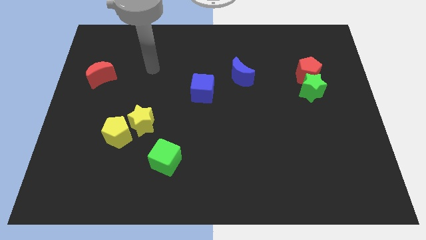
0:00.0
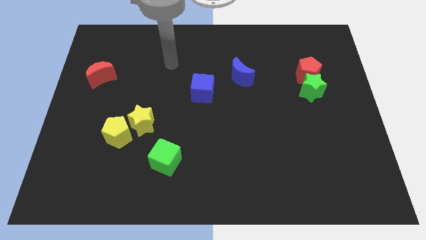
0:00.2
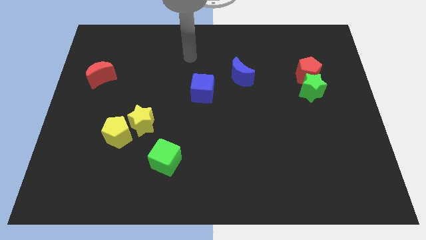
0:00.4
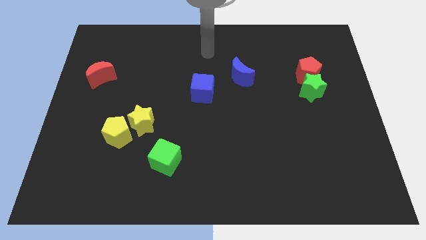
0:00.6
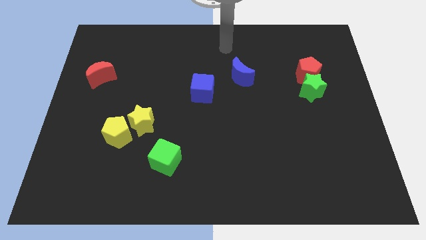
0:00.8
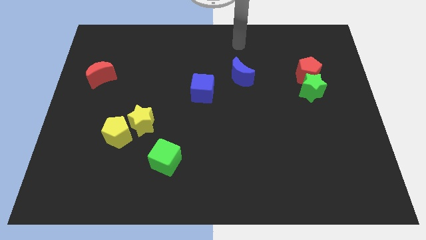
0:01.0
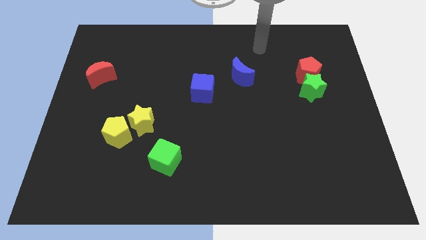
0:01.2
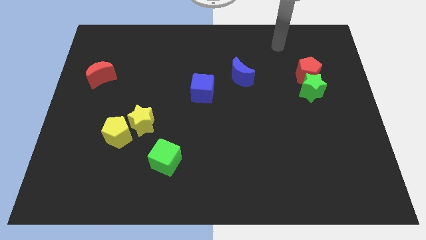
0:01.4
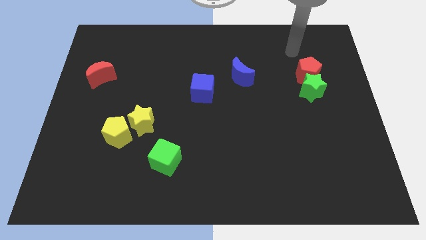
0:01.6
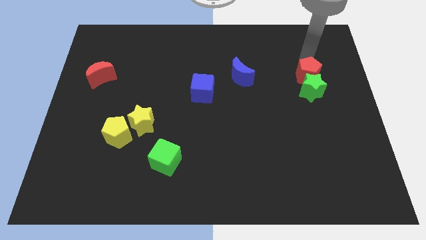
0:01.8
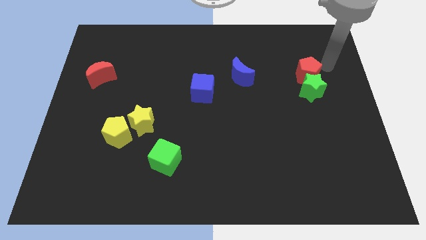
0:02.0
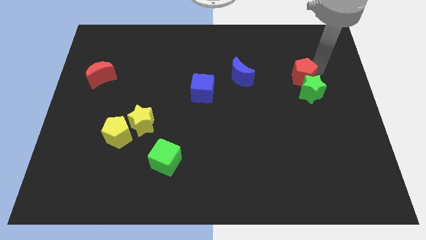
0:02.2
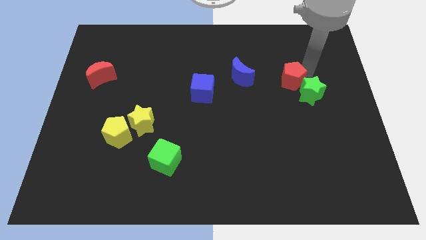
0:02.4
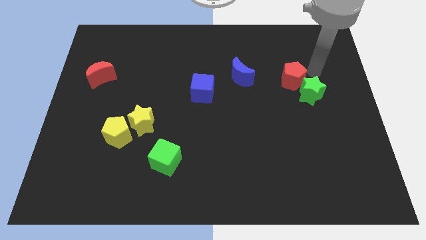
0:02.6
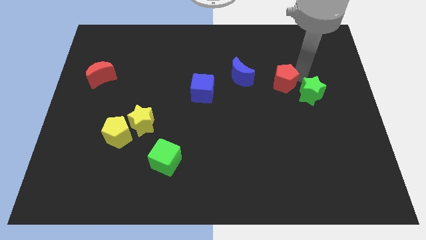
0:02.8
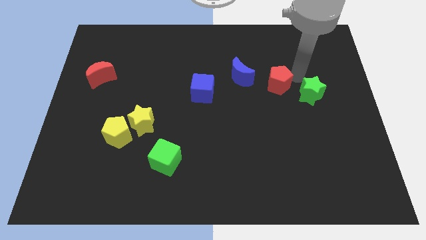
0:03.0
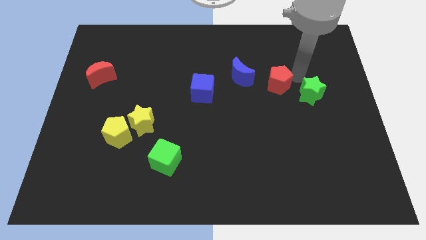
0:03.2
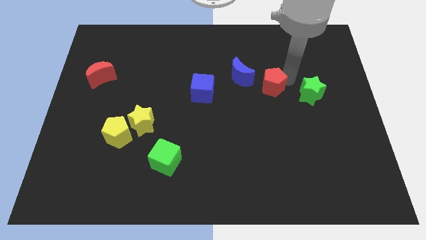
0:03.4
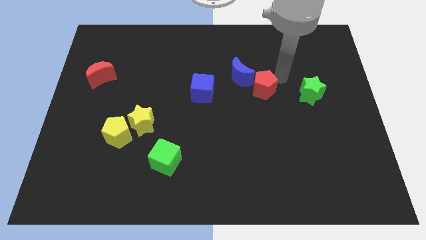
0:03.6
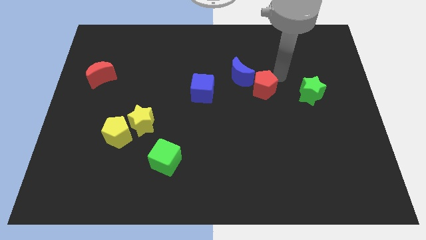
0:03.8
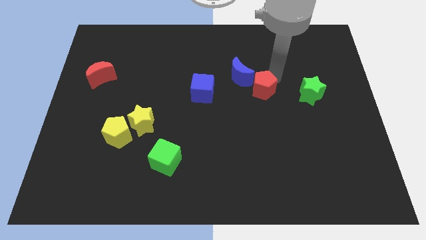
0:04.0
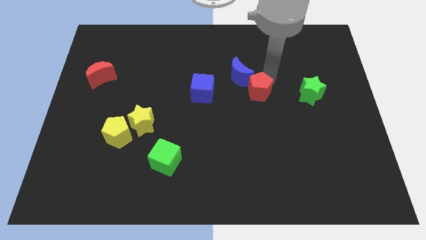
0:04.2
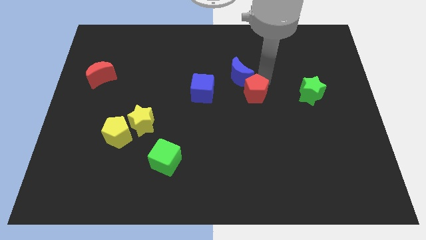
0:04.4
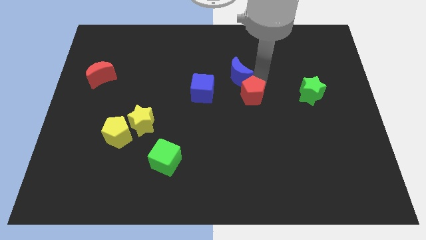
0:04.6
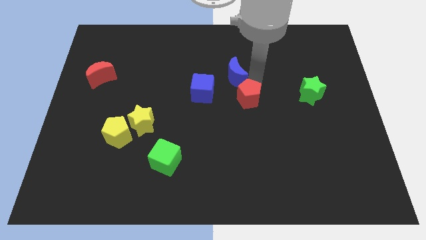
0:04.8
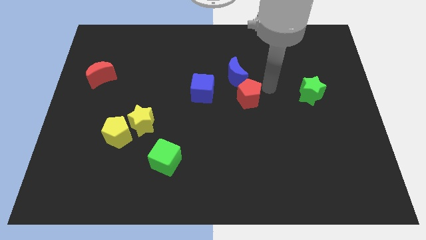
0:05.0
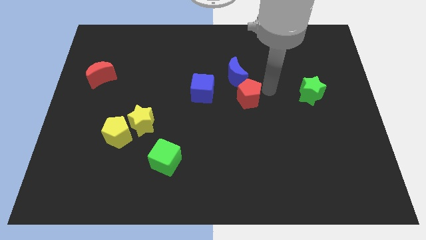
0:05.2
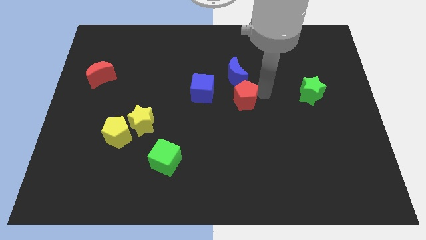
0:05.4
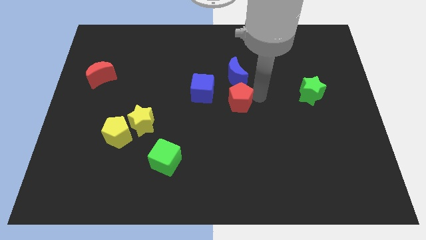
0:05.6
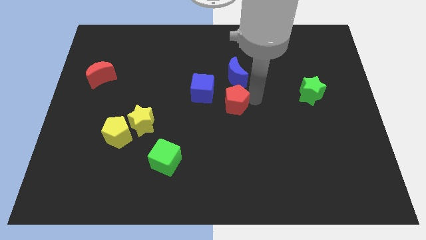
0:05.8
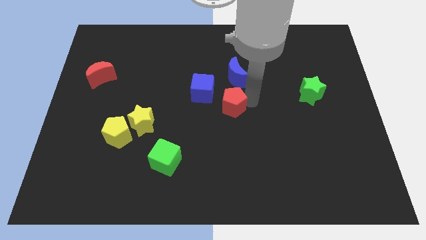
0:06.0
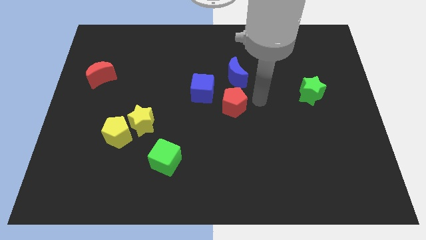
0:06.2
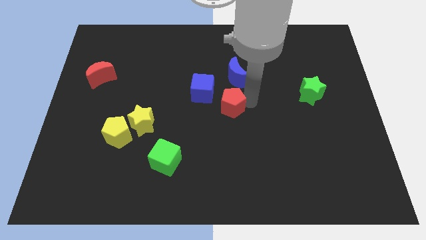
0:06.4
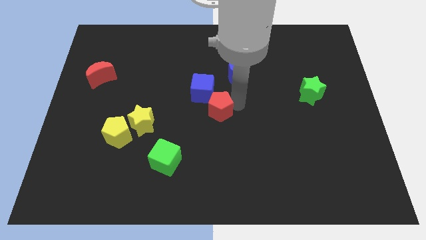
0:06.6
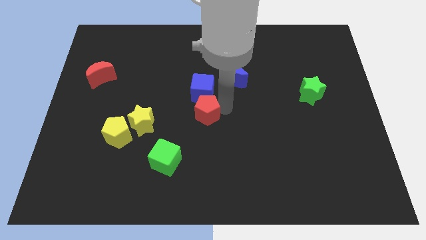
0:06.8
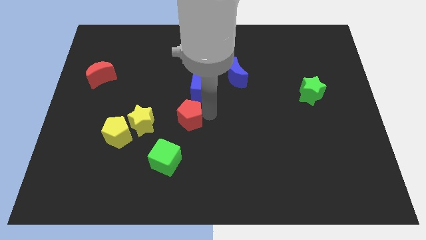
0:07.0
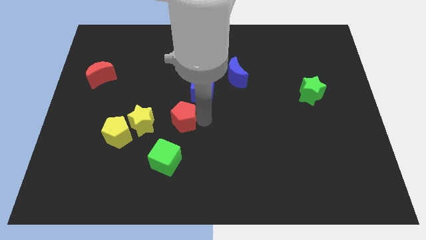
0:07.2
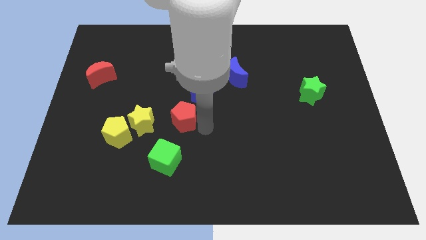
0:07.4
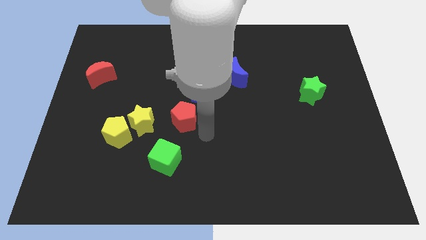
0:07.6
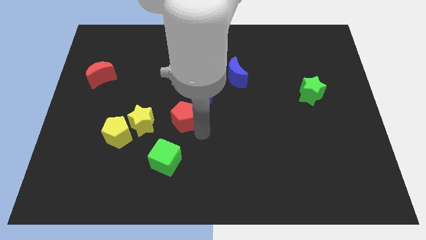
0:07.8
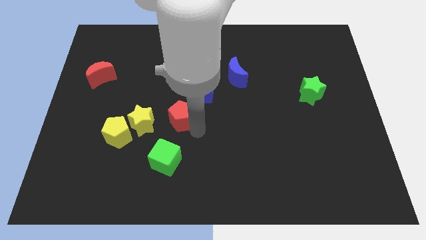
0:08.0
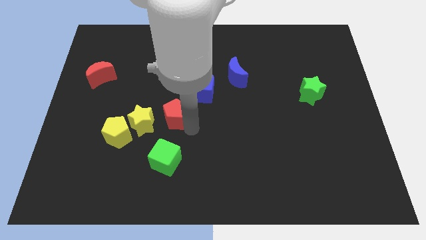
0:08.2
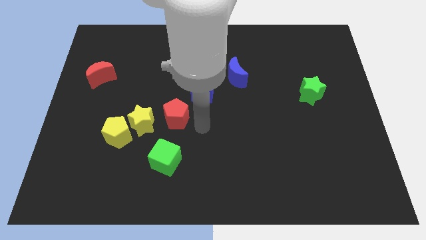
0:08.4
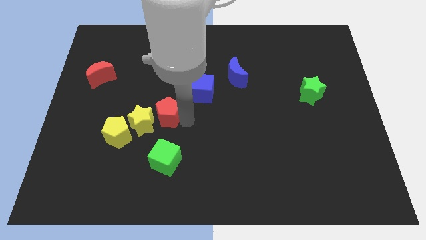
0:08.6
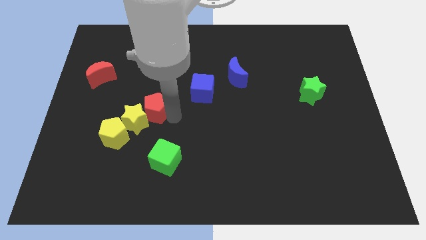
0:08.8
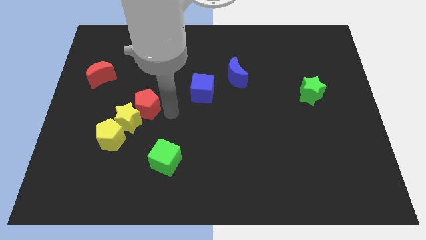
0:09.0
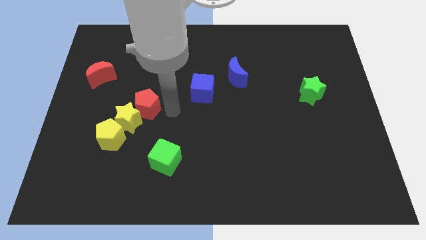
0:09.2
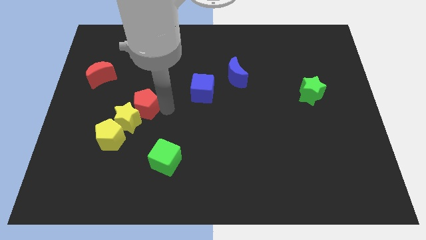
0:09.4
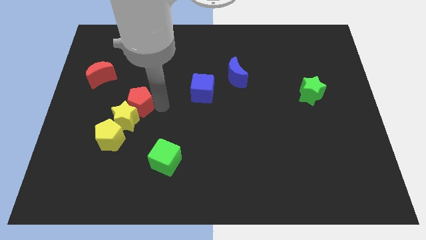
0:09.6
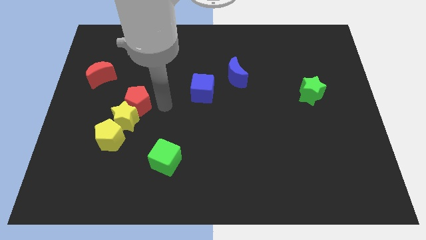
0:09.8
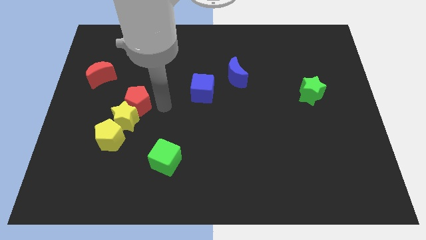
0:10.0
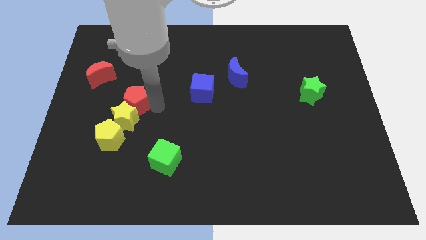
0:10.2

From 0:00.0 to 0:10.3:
put the red pentagon above the yellow pentagon

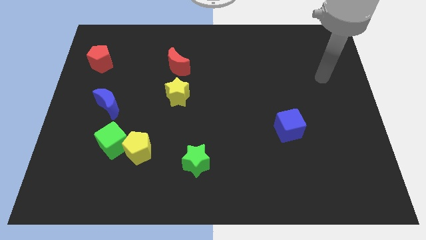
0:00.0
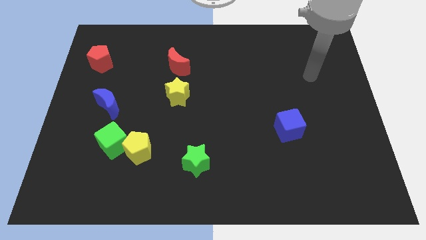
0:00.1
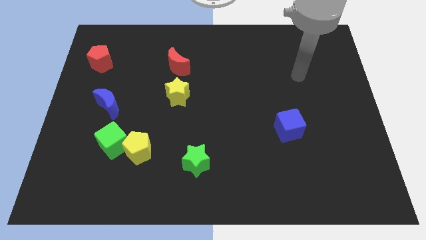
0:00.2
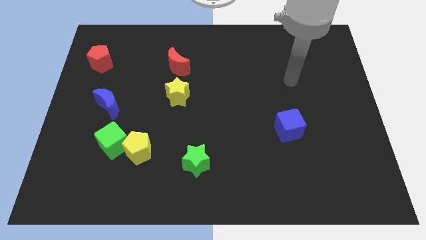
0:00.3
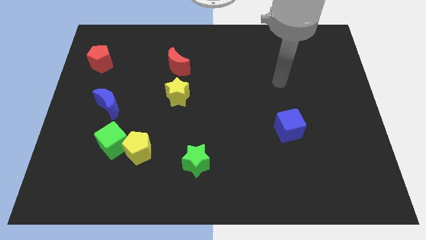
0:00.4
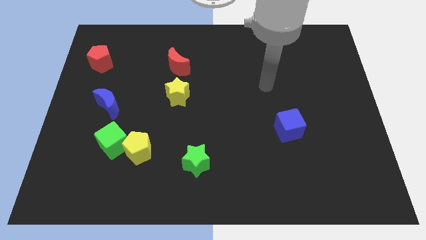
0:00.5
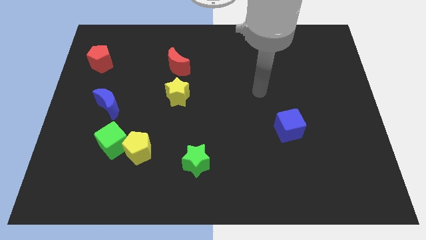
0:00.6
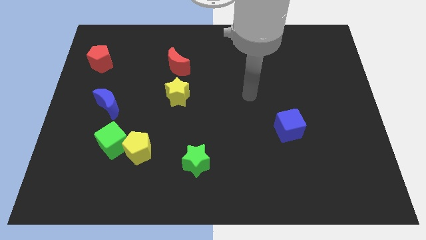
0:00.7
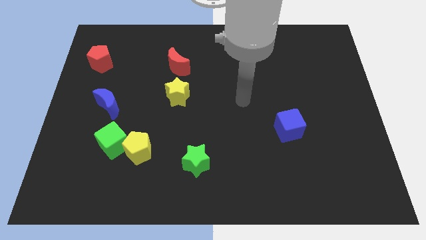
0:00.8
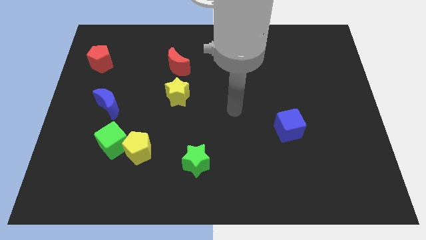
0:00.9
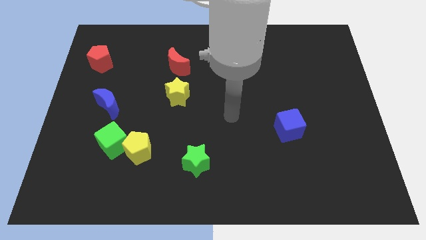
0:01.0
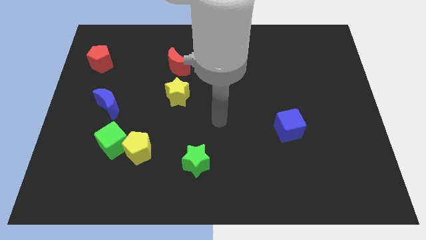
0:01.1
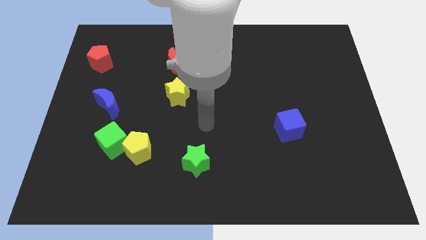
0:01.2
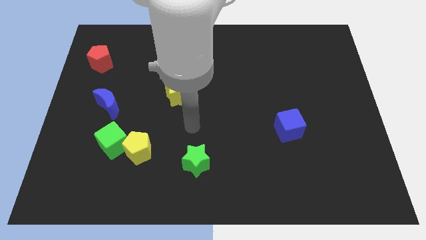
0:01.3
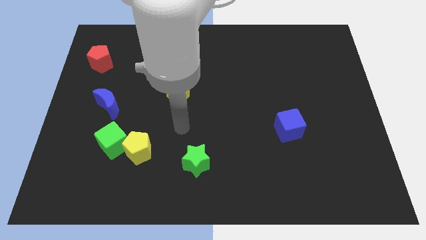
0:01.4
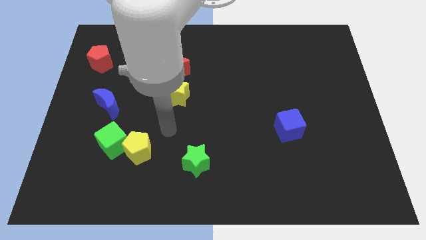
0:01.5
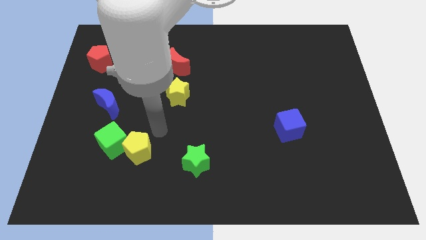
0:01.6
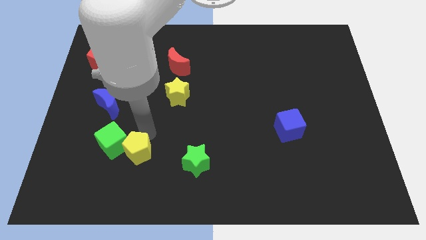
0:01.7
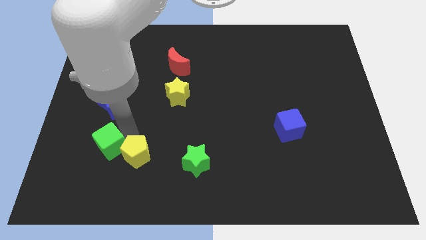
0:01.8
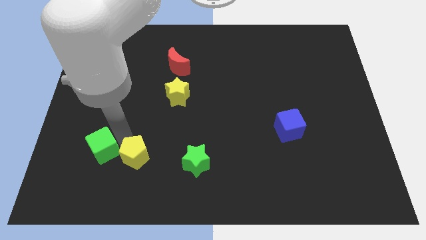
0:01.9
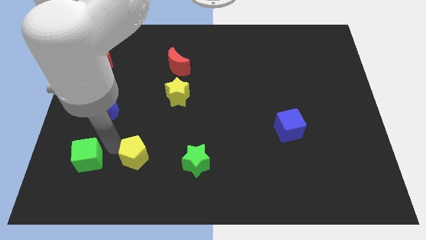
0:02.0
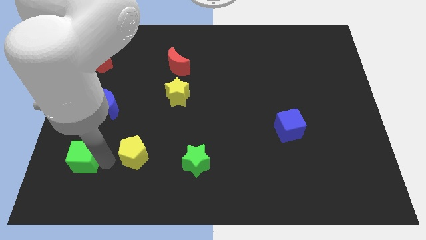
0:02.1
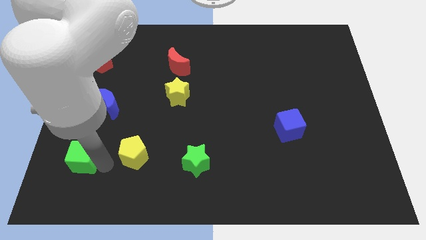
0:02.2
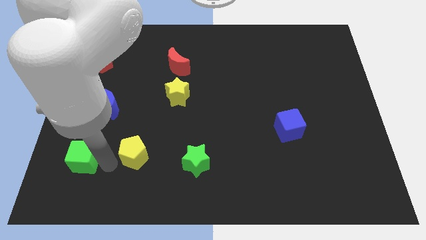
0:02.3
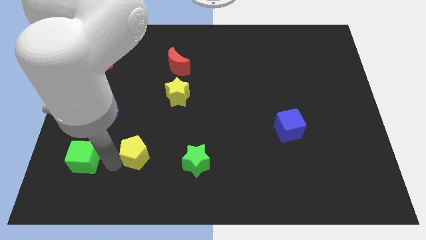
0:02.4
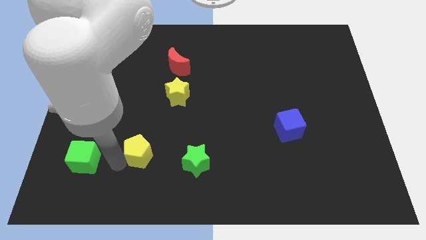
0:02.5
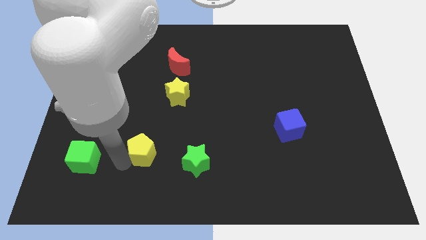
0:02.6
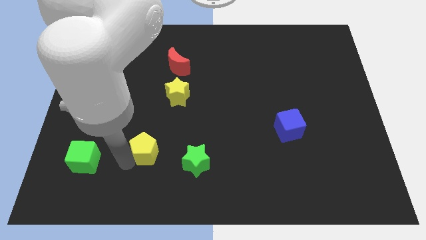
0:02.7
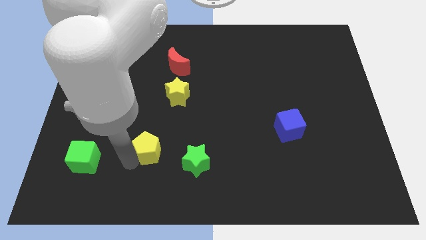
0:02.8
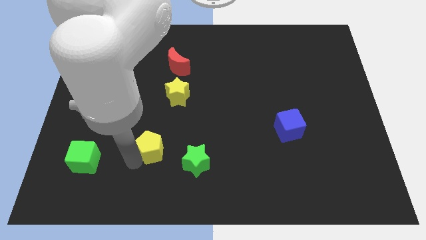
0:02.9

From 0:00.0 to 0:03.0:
slide the yellow pentagon diagonally up and to the left of the green star
